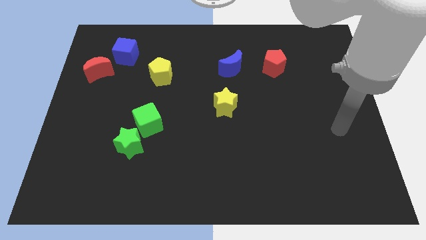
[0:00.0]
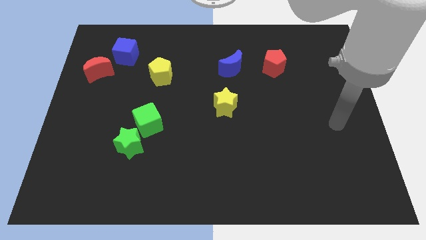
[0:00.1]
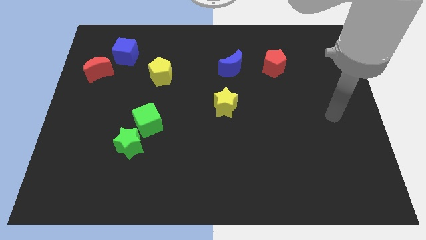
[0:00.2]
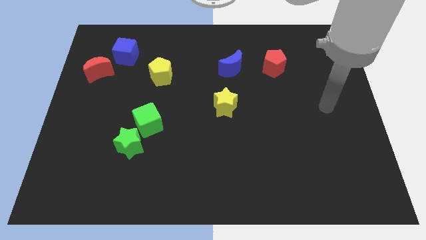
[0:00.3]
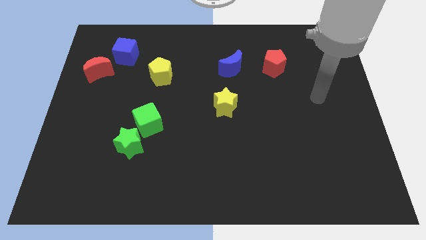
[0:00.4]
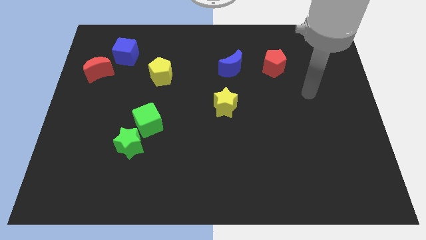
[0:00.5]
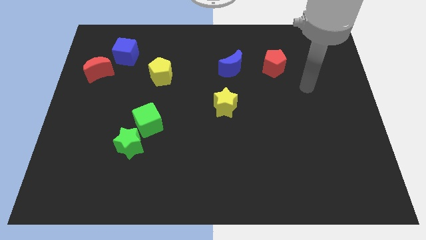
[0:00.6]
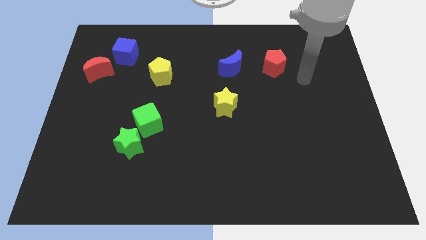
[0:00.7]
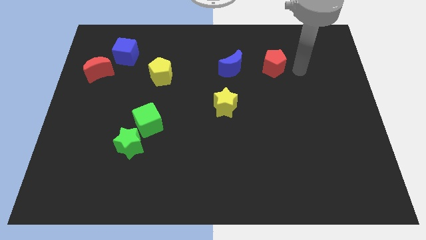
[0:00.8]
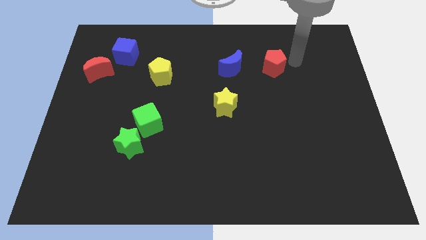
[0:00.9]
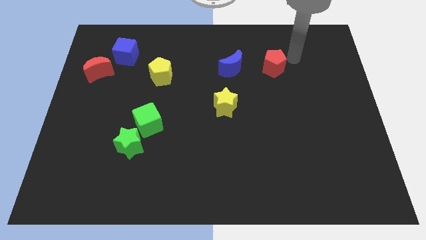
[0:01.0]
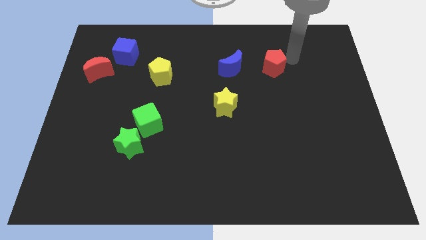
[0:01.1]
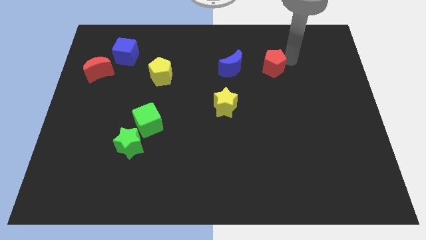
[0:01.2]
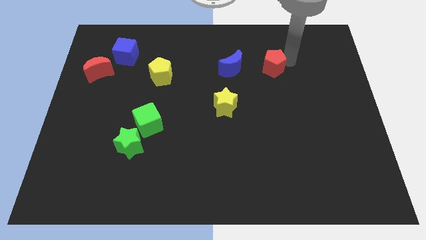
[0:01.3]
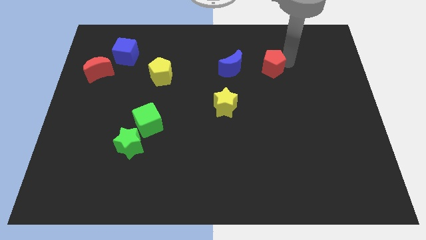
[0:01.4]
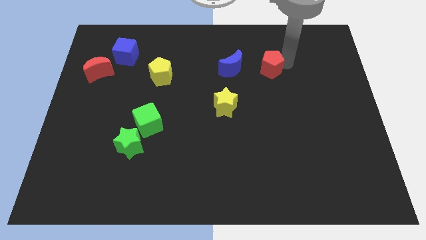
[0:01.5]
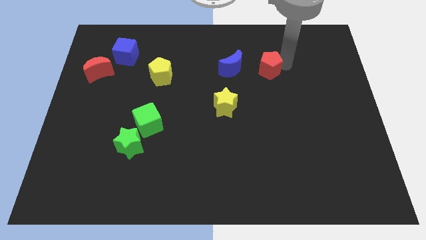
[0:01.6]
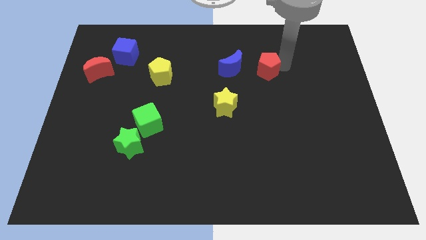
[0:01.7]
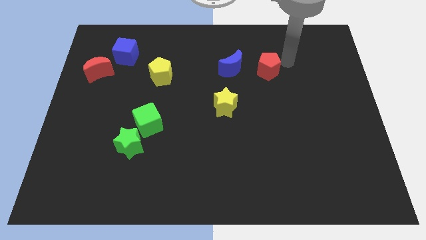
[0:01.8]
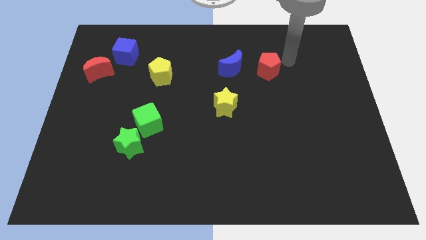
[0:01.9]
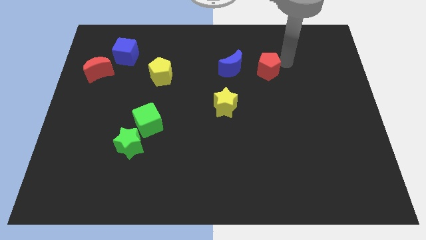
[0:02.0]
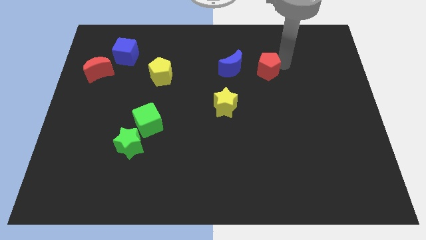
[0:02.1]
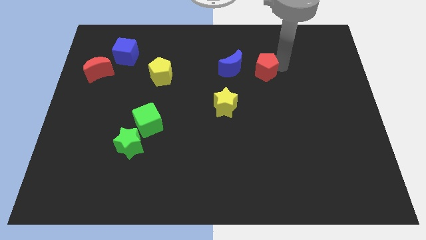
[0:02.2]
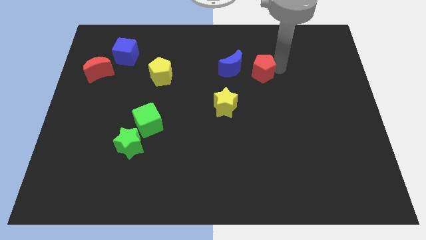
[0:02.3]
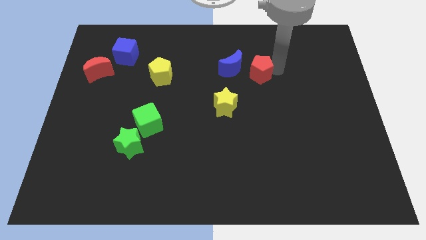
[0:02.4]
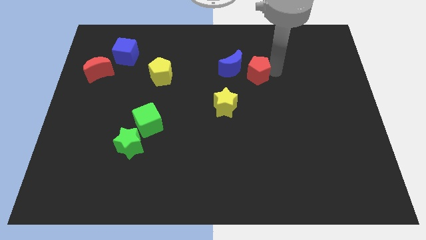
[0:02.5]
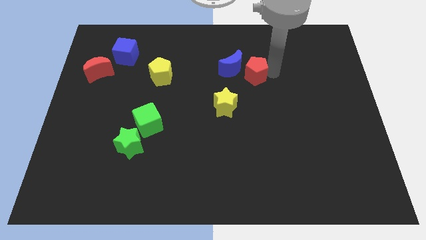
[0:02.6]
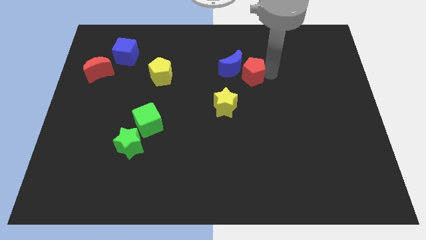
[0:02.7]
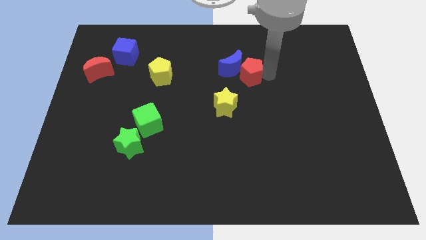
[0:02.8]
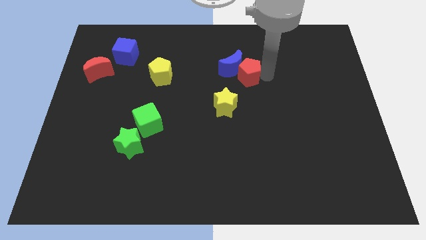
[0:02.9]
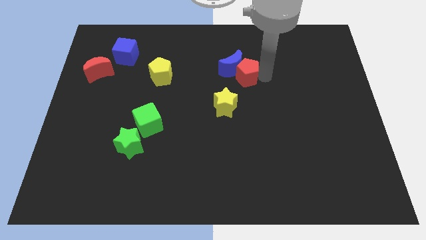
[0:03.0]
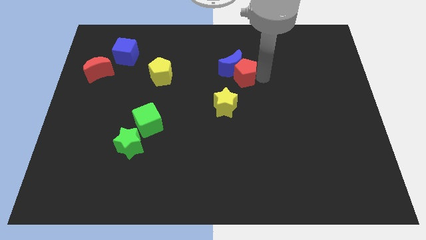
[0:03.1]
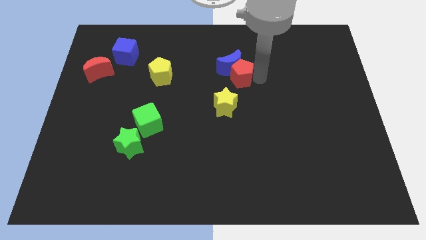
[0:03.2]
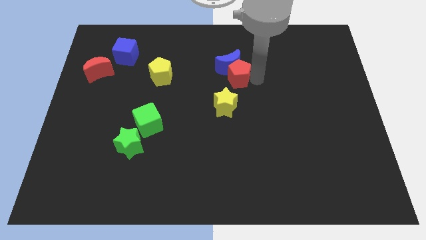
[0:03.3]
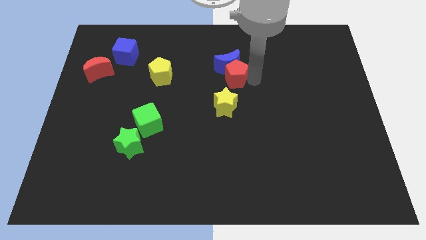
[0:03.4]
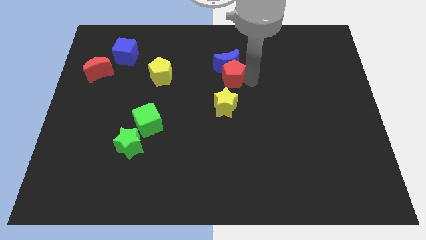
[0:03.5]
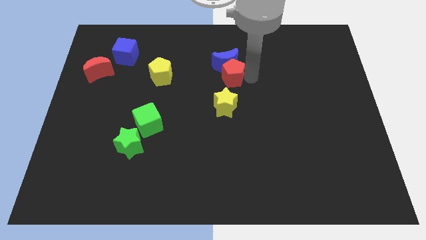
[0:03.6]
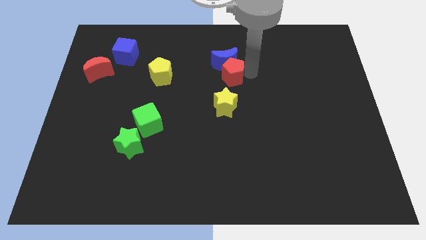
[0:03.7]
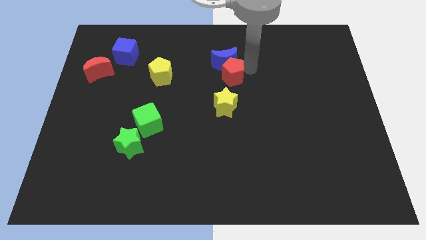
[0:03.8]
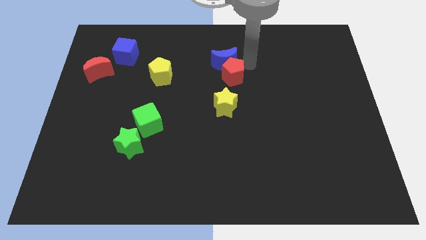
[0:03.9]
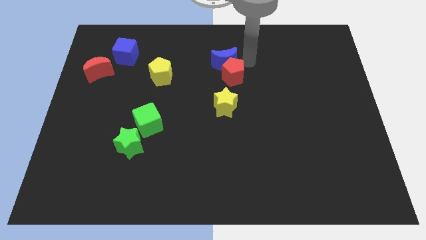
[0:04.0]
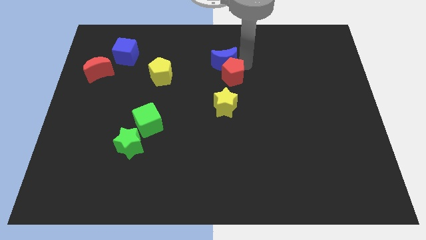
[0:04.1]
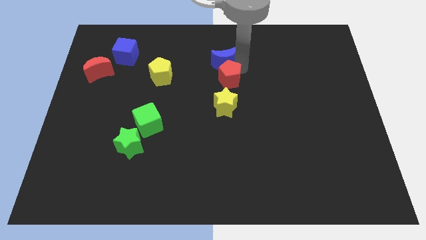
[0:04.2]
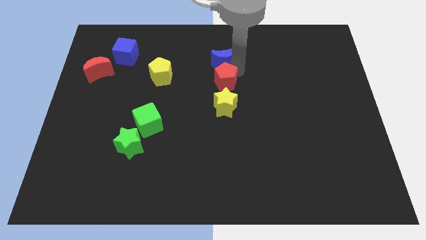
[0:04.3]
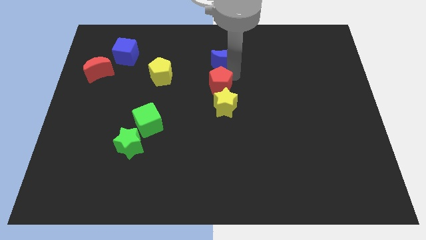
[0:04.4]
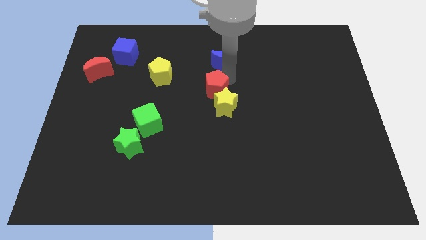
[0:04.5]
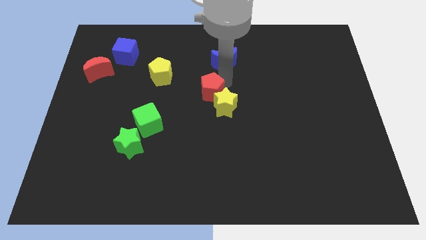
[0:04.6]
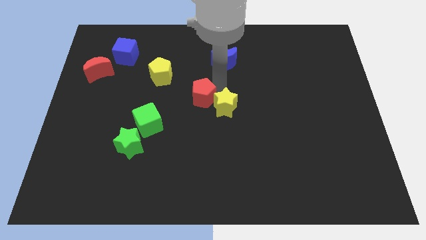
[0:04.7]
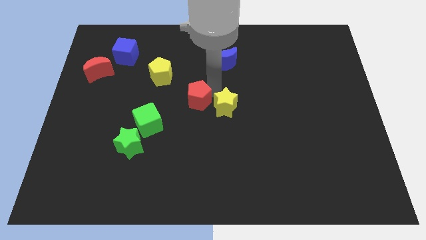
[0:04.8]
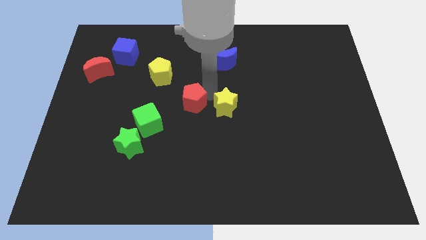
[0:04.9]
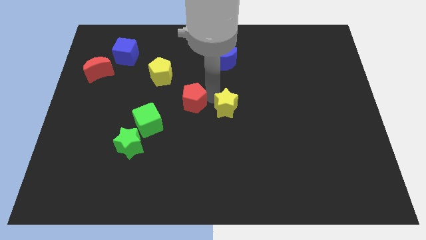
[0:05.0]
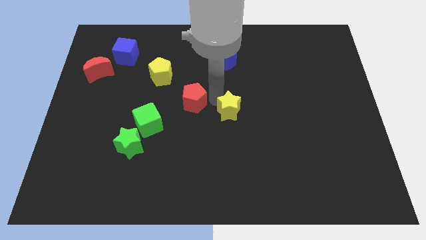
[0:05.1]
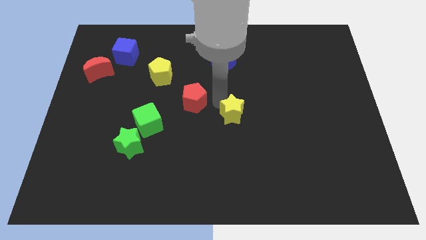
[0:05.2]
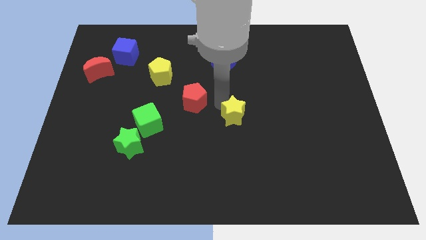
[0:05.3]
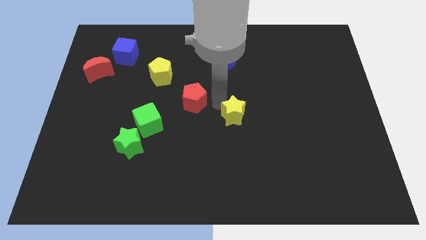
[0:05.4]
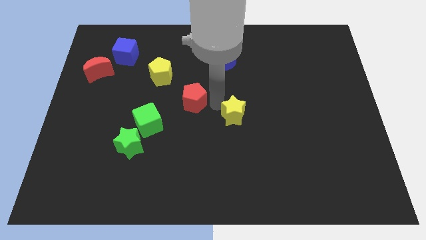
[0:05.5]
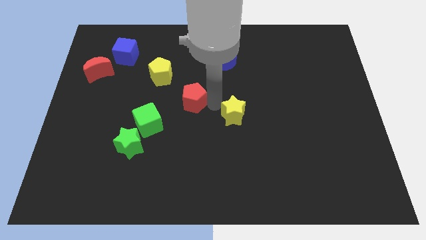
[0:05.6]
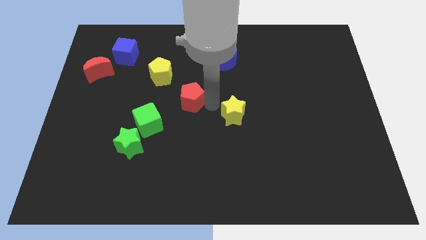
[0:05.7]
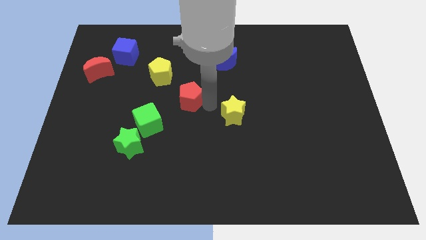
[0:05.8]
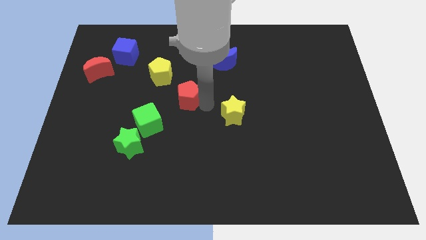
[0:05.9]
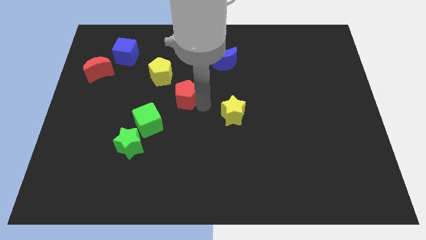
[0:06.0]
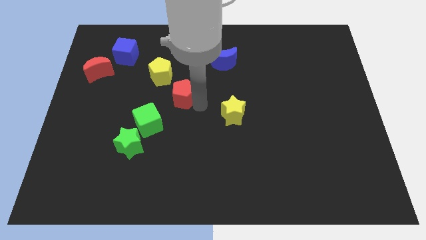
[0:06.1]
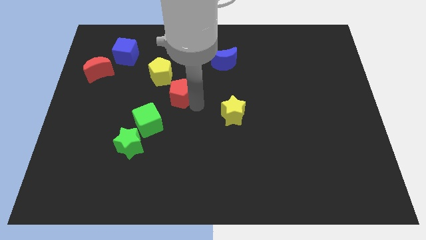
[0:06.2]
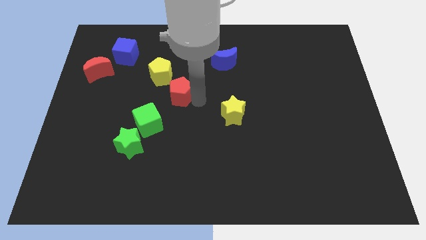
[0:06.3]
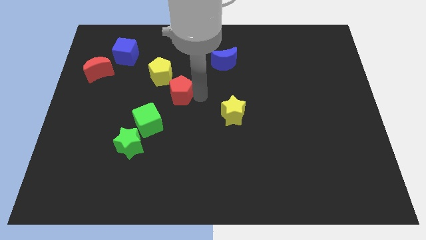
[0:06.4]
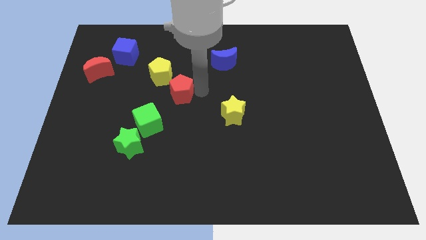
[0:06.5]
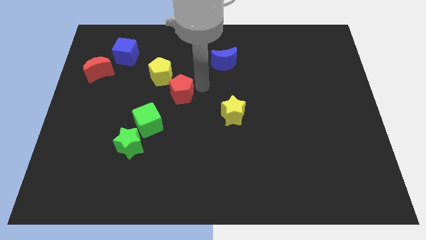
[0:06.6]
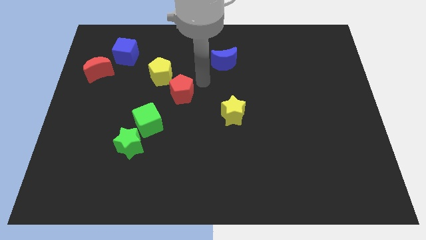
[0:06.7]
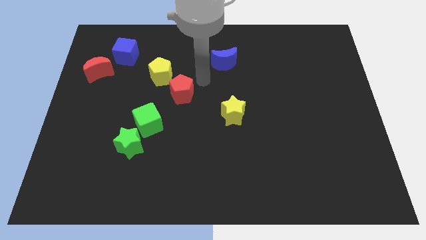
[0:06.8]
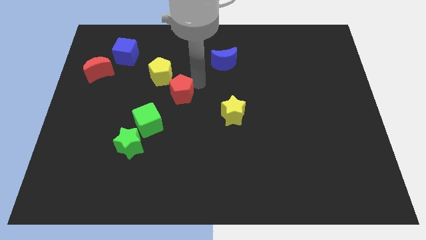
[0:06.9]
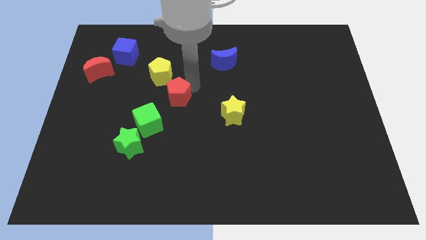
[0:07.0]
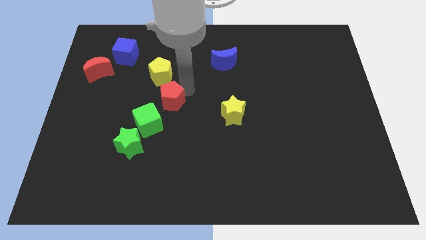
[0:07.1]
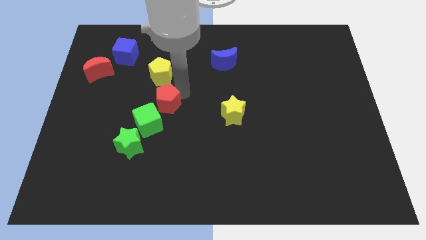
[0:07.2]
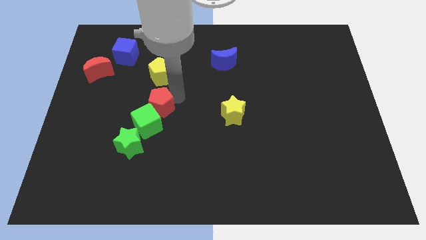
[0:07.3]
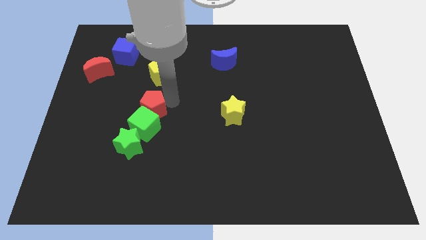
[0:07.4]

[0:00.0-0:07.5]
put the red pentagon to the top of the green star
